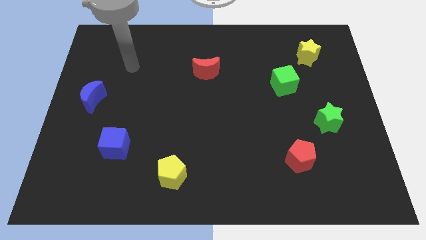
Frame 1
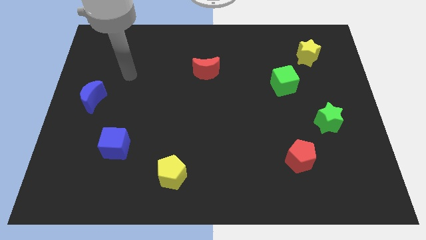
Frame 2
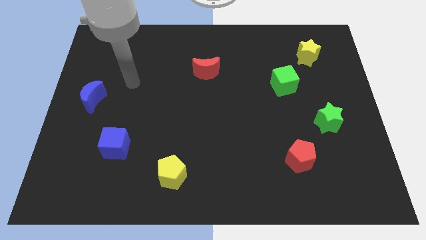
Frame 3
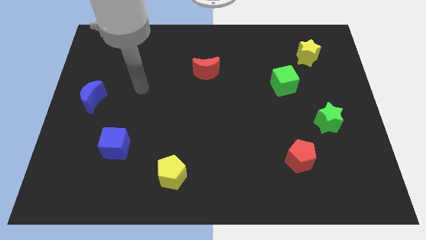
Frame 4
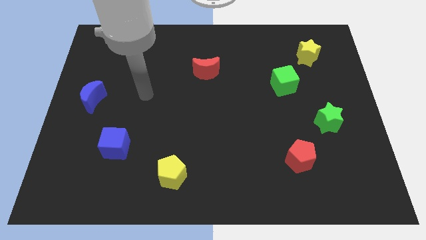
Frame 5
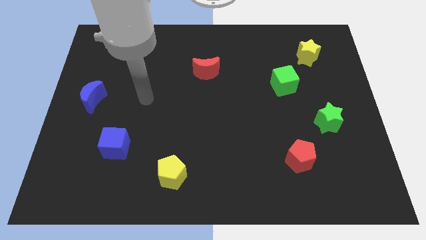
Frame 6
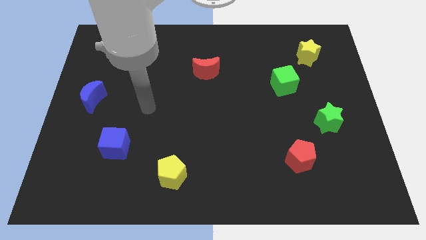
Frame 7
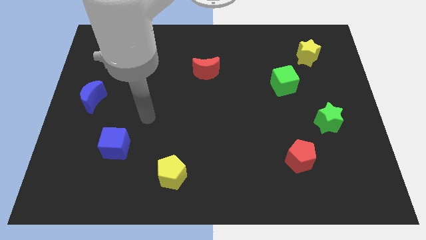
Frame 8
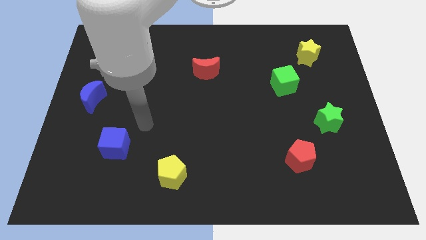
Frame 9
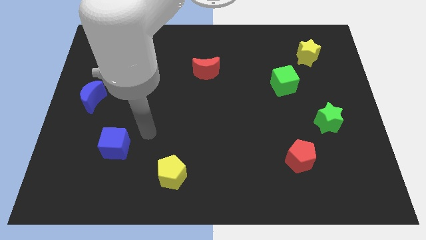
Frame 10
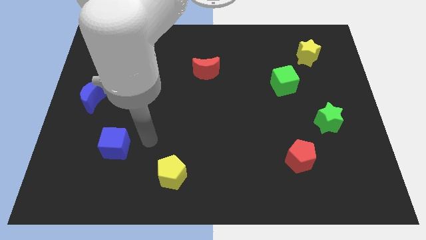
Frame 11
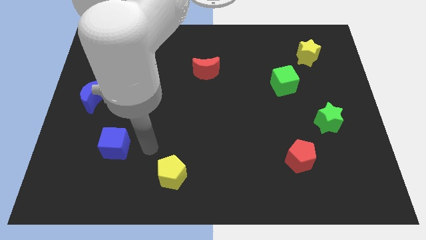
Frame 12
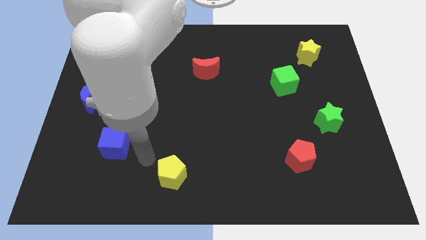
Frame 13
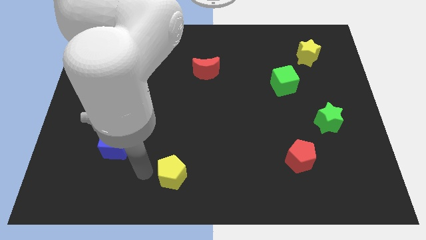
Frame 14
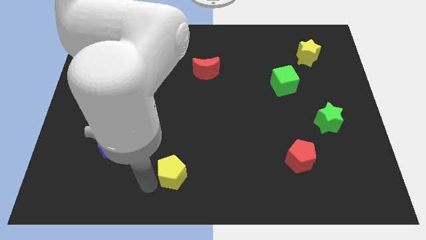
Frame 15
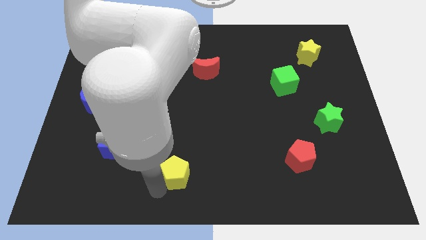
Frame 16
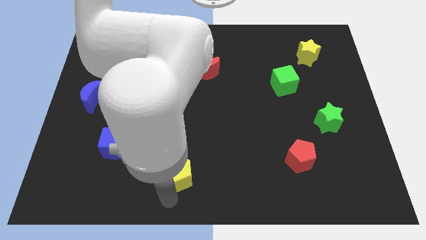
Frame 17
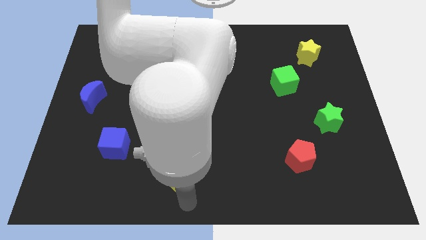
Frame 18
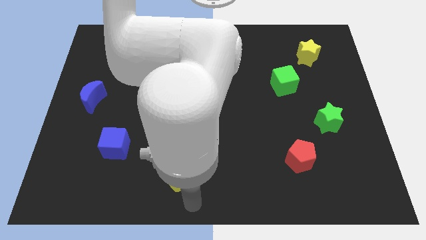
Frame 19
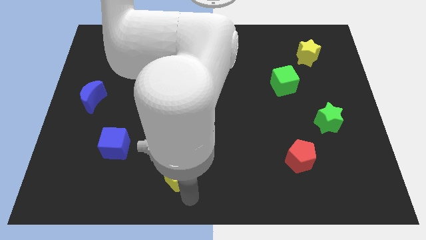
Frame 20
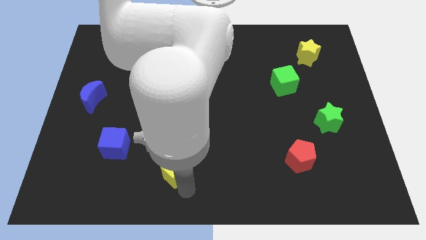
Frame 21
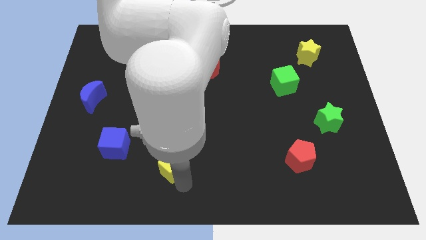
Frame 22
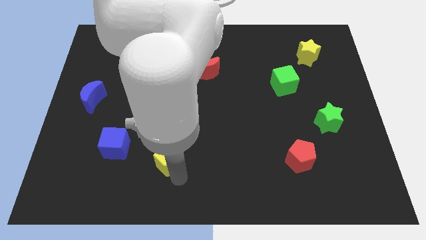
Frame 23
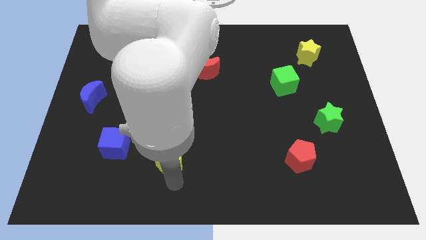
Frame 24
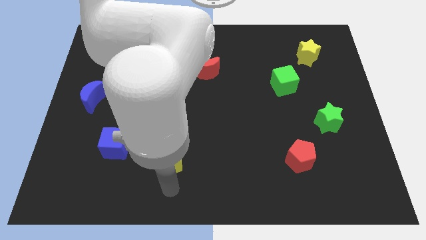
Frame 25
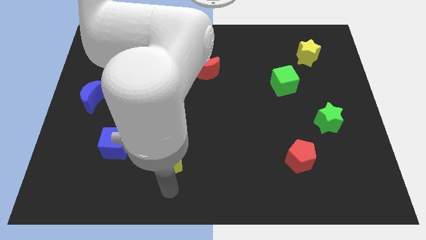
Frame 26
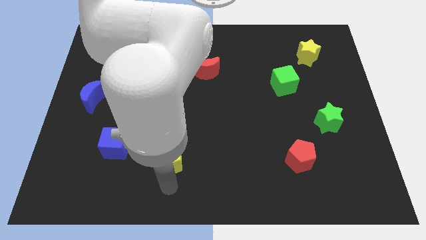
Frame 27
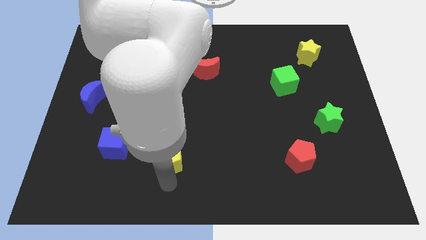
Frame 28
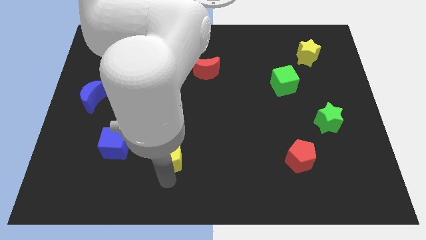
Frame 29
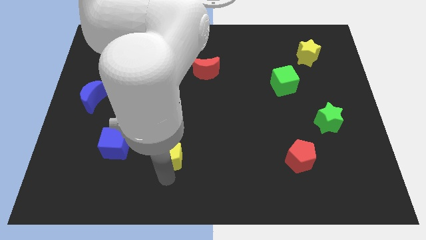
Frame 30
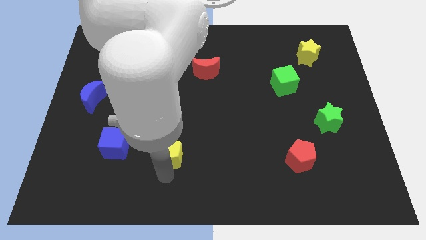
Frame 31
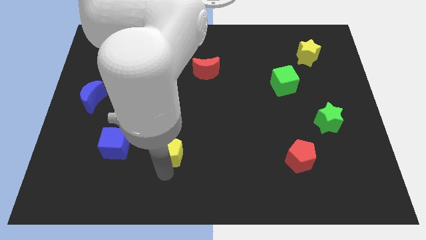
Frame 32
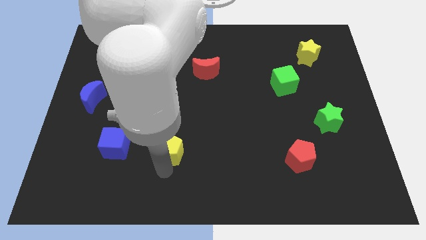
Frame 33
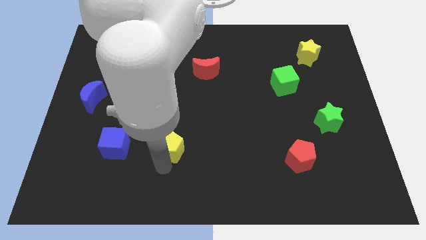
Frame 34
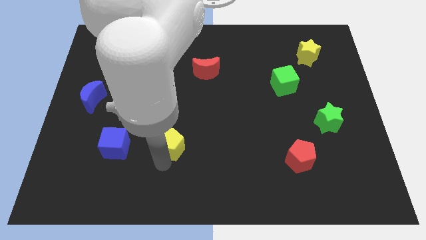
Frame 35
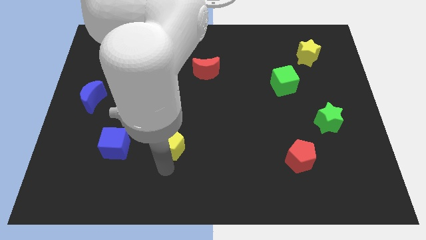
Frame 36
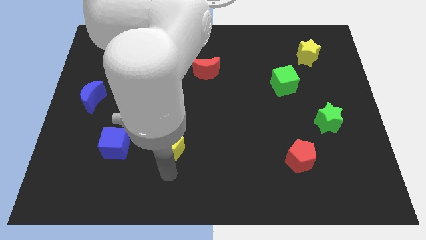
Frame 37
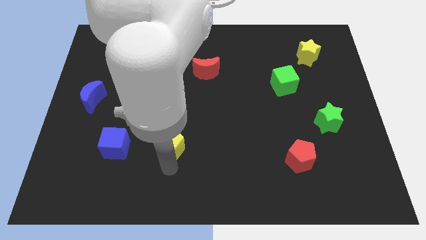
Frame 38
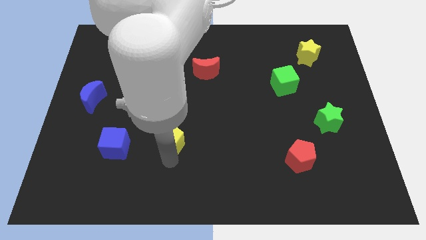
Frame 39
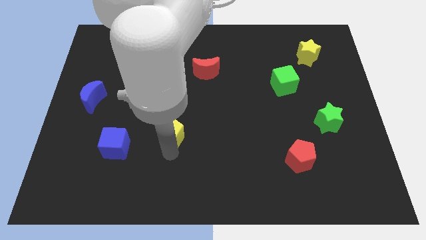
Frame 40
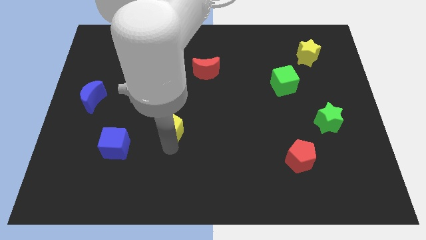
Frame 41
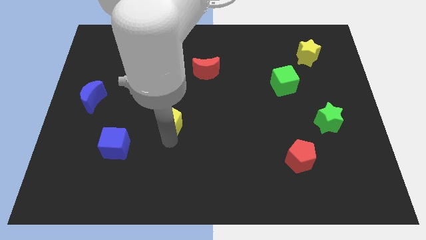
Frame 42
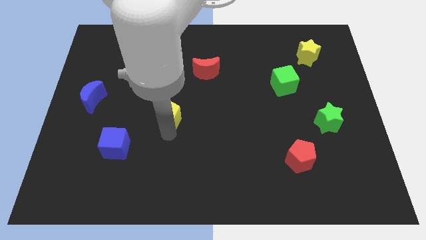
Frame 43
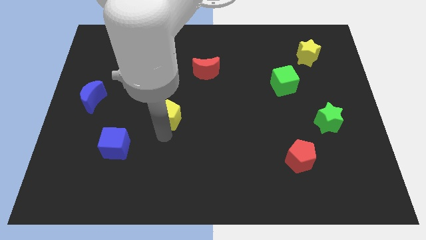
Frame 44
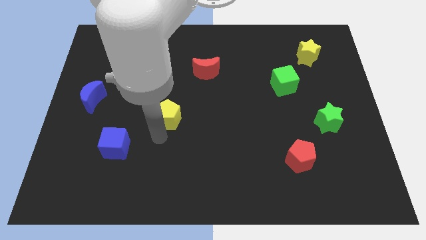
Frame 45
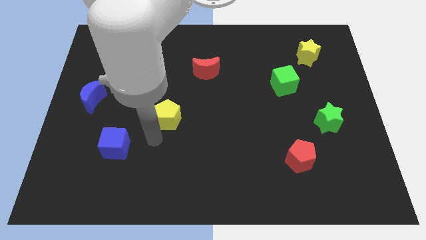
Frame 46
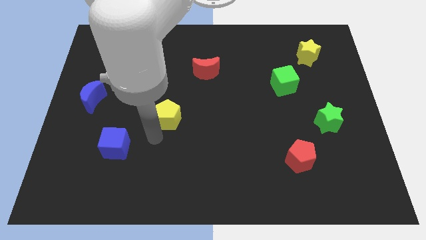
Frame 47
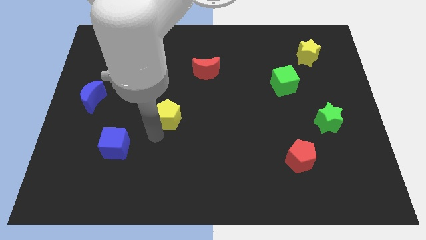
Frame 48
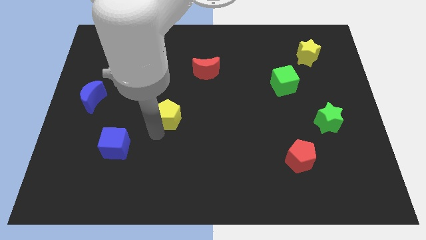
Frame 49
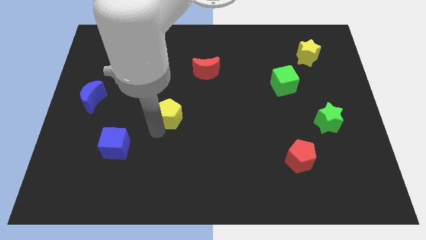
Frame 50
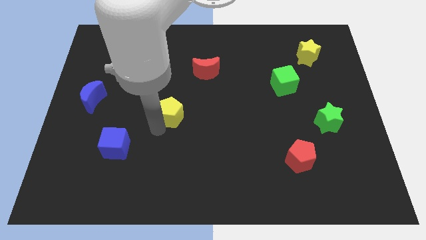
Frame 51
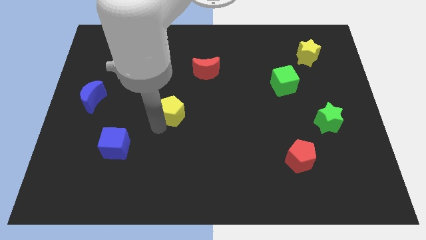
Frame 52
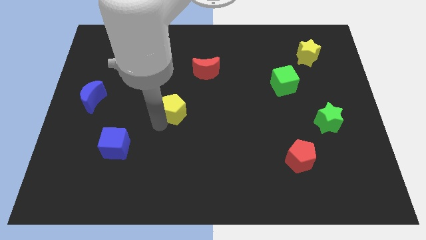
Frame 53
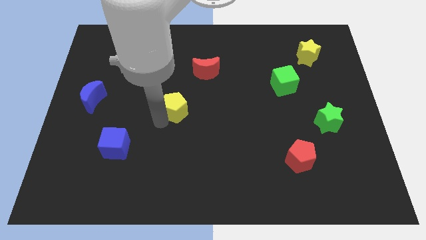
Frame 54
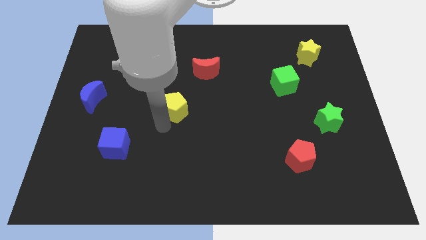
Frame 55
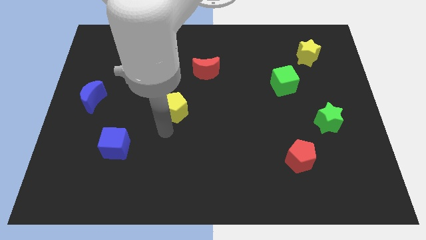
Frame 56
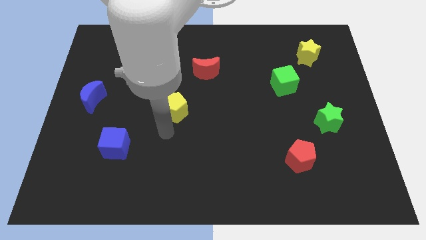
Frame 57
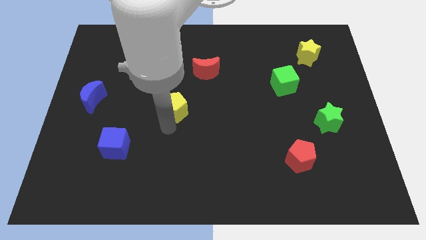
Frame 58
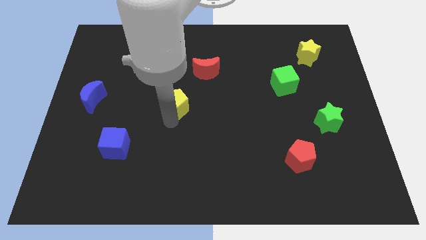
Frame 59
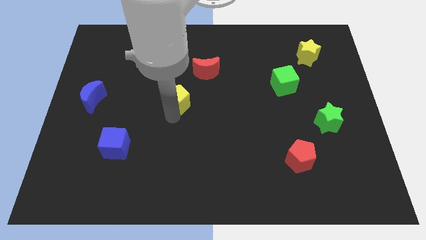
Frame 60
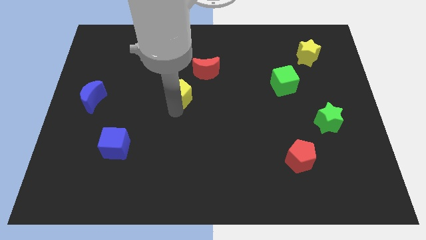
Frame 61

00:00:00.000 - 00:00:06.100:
push the yellow pentagon upwards

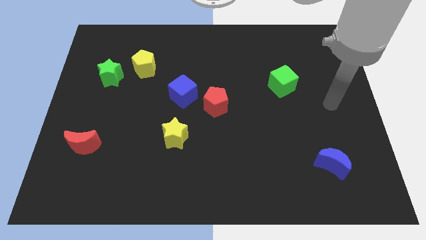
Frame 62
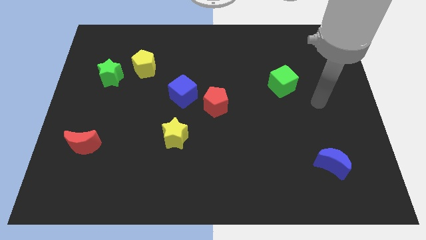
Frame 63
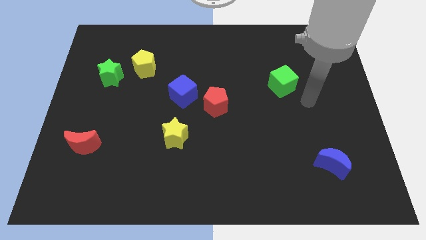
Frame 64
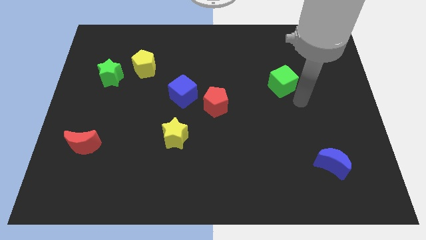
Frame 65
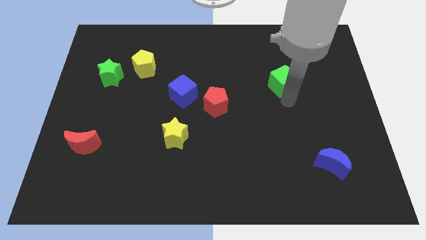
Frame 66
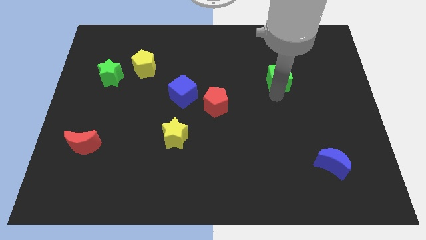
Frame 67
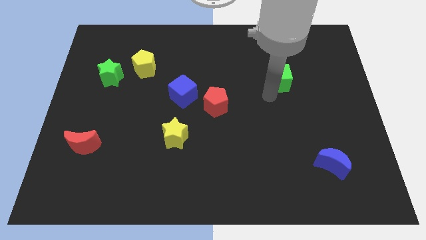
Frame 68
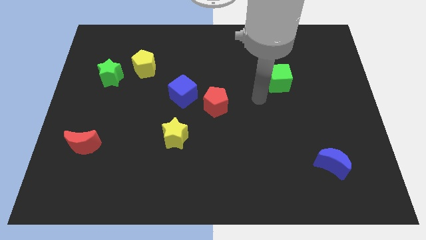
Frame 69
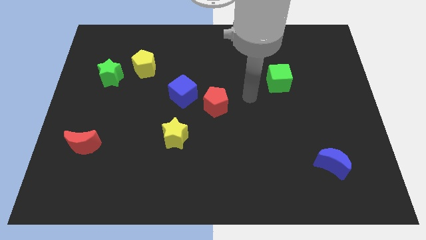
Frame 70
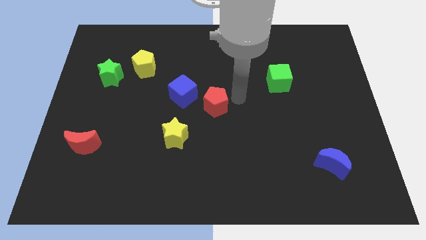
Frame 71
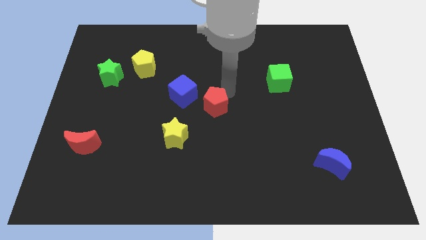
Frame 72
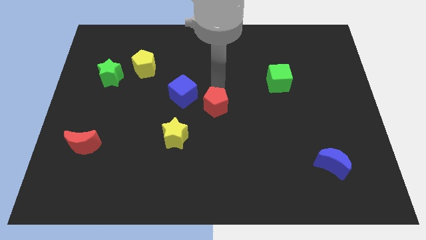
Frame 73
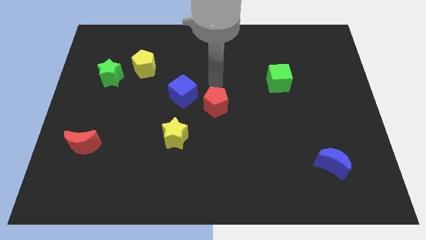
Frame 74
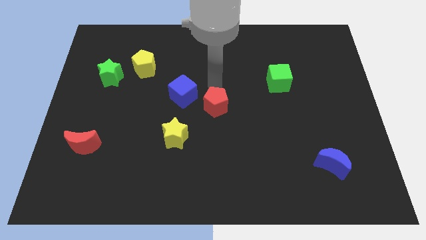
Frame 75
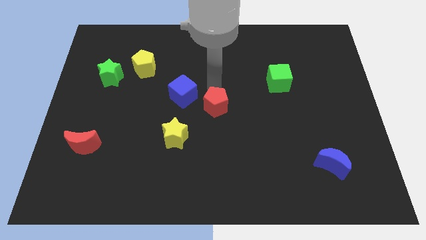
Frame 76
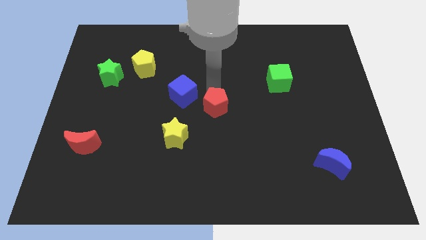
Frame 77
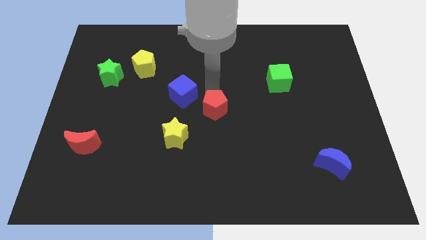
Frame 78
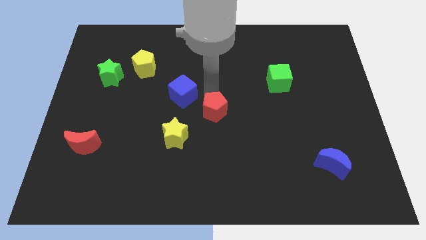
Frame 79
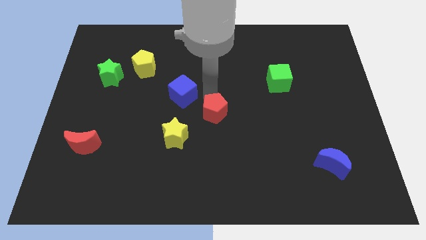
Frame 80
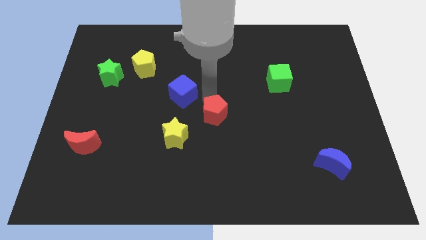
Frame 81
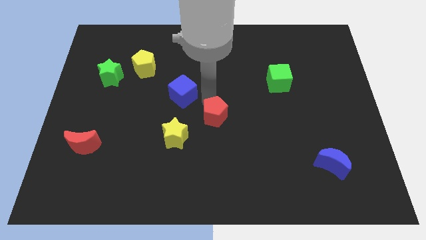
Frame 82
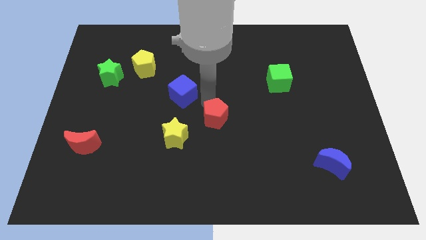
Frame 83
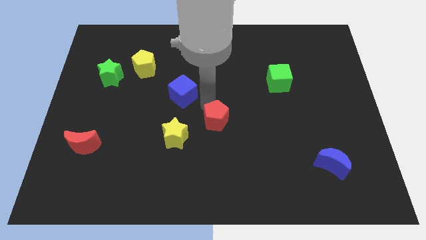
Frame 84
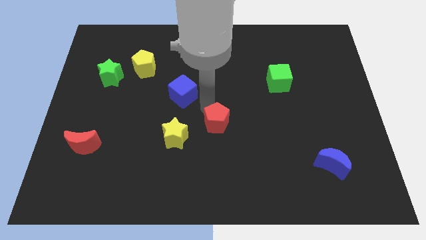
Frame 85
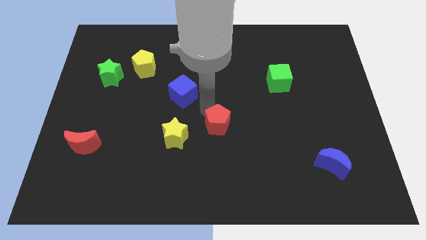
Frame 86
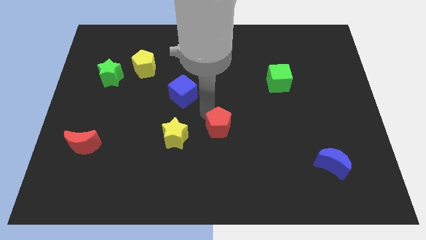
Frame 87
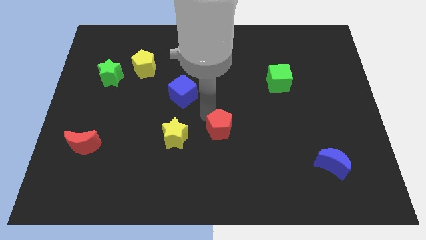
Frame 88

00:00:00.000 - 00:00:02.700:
slightly push the red pentagon downwards
